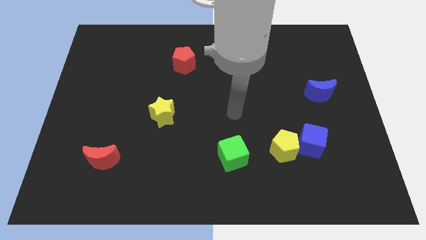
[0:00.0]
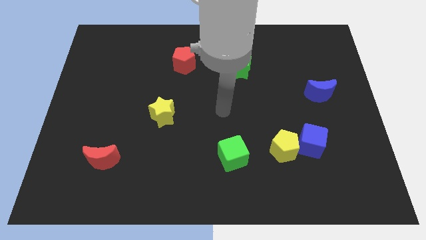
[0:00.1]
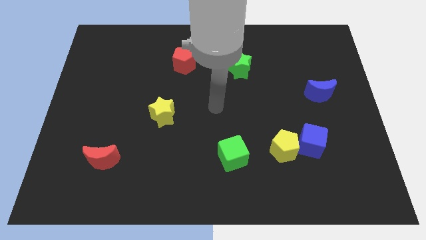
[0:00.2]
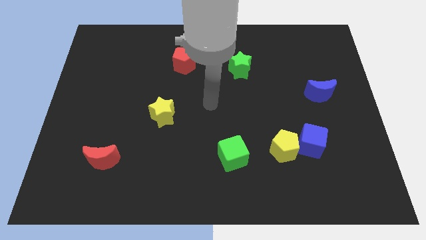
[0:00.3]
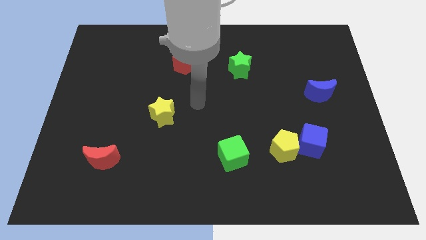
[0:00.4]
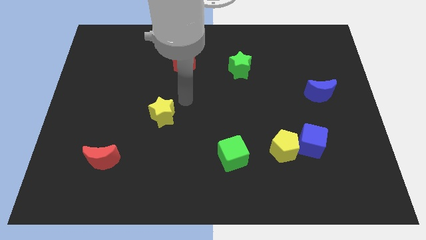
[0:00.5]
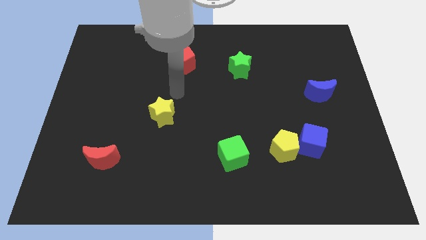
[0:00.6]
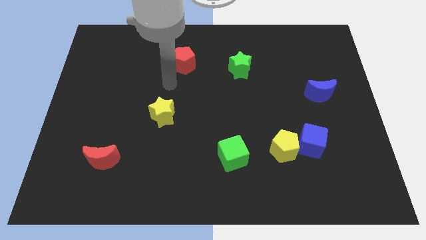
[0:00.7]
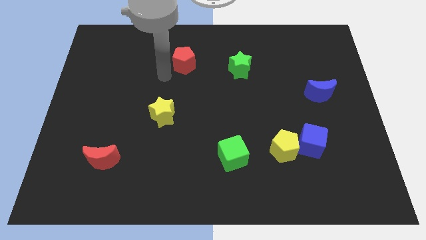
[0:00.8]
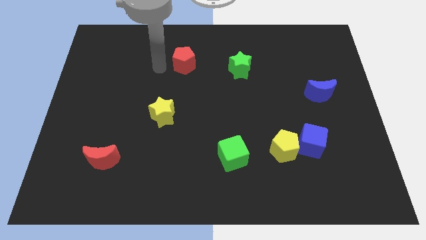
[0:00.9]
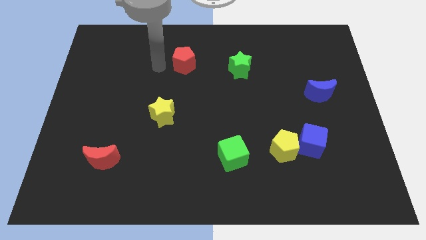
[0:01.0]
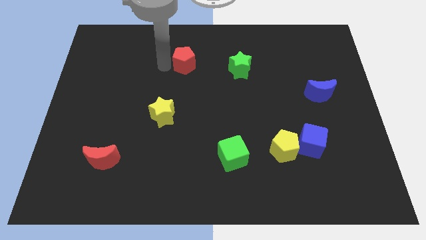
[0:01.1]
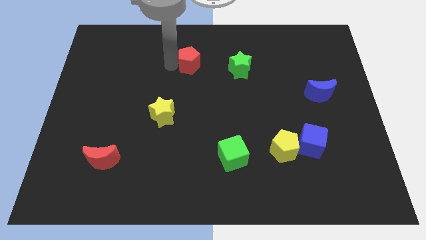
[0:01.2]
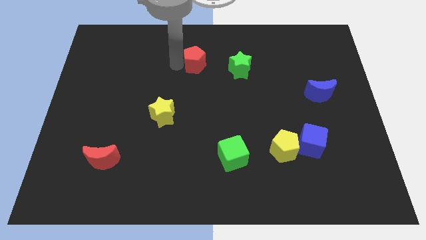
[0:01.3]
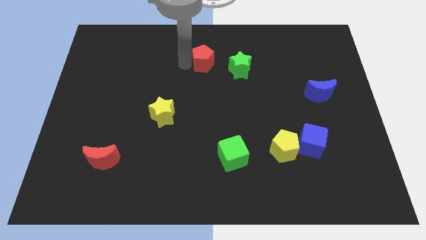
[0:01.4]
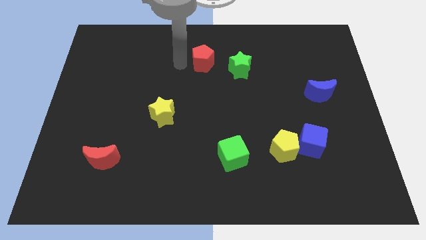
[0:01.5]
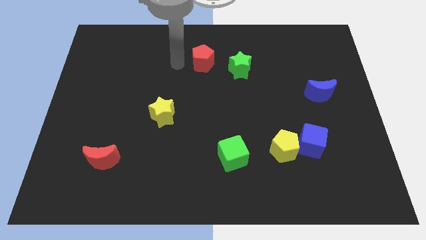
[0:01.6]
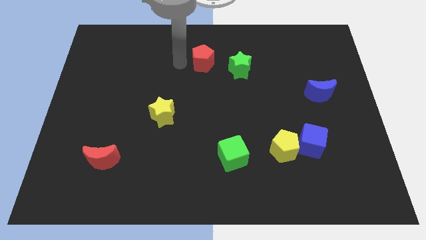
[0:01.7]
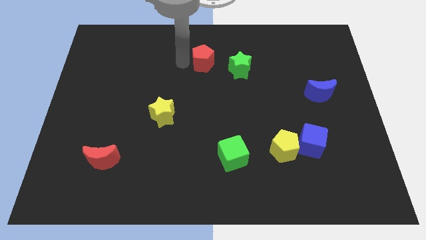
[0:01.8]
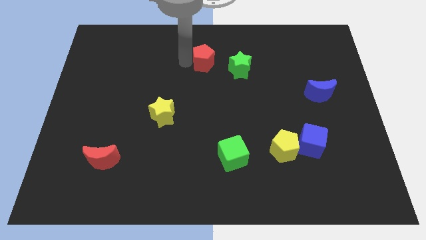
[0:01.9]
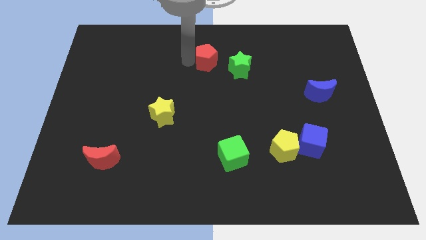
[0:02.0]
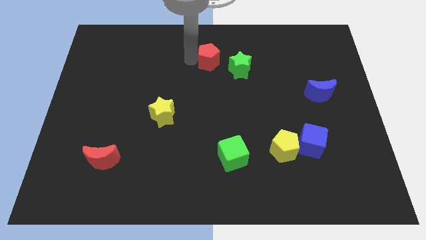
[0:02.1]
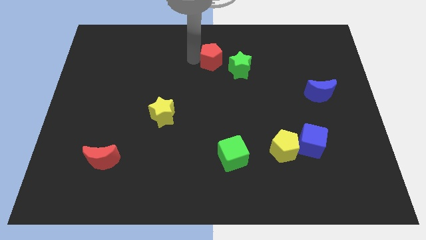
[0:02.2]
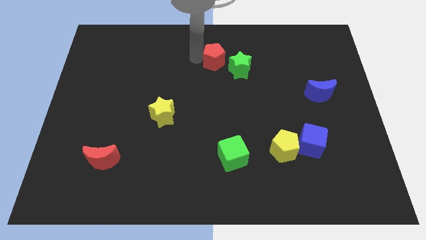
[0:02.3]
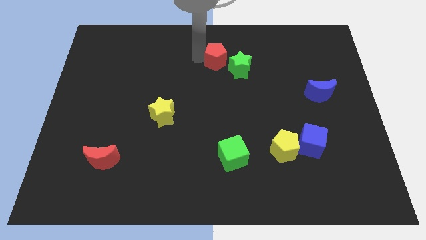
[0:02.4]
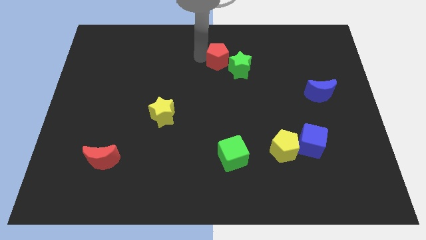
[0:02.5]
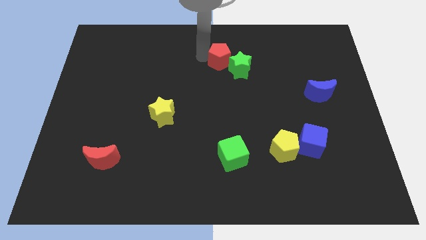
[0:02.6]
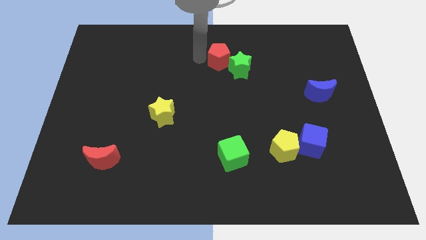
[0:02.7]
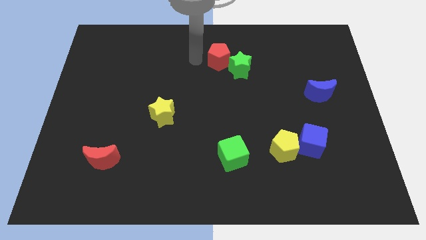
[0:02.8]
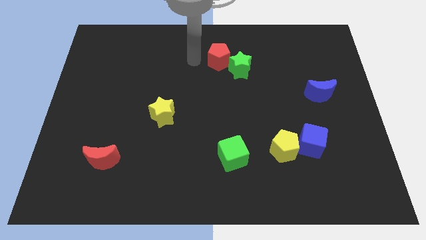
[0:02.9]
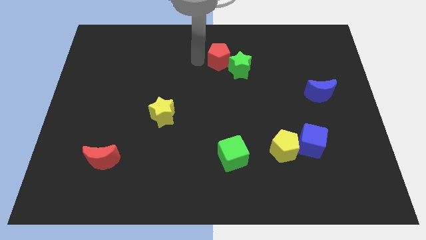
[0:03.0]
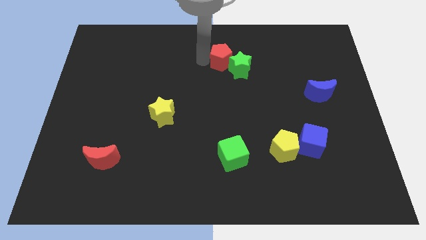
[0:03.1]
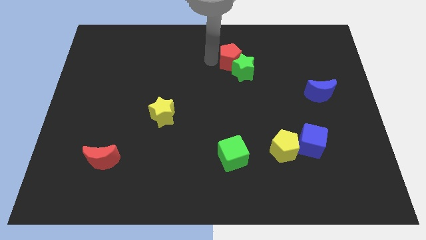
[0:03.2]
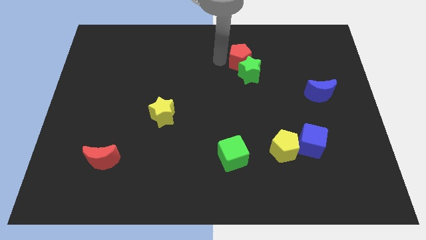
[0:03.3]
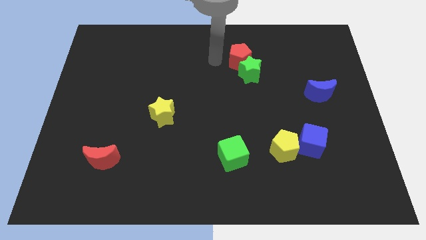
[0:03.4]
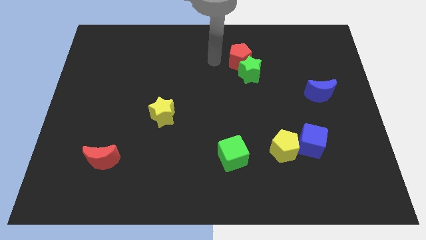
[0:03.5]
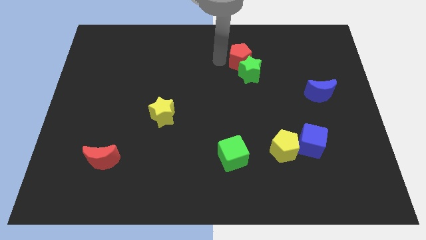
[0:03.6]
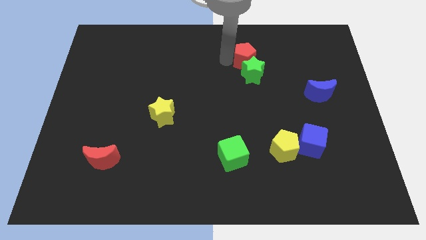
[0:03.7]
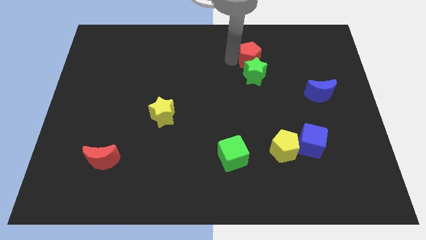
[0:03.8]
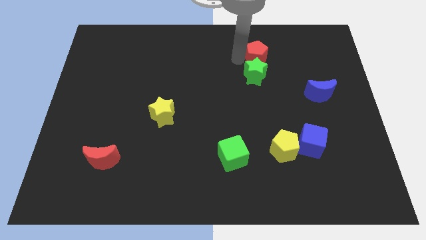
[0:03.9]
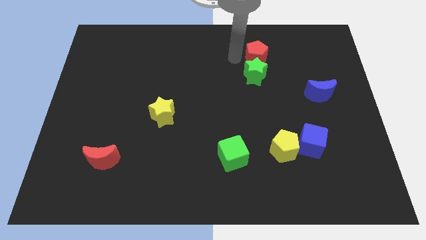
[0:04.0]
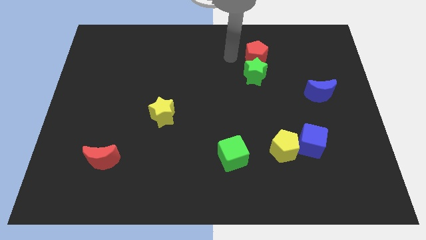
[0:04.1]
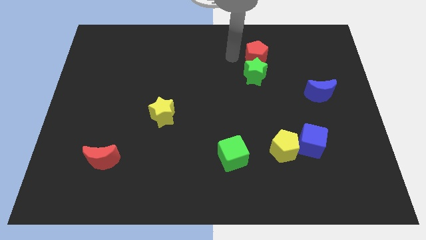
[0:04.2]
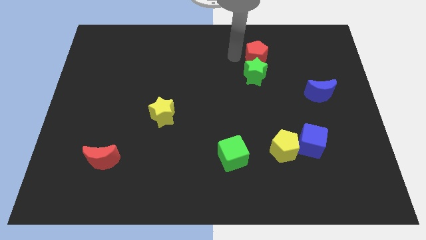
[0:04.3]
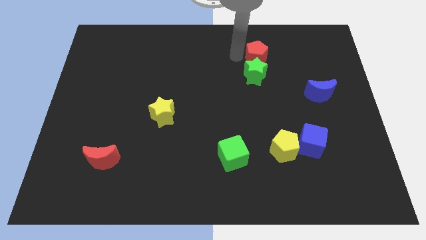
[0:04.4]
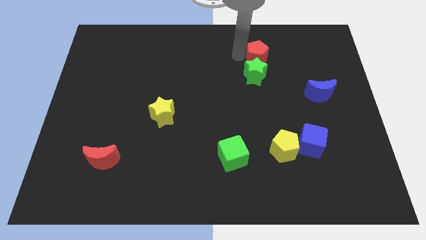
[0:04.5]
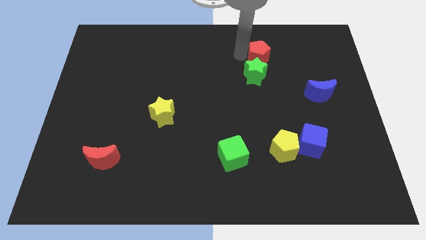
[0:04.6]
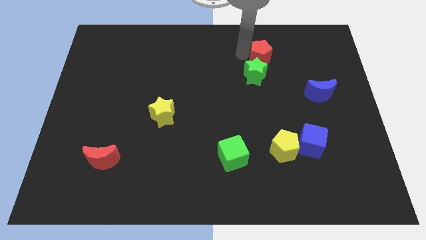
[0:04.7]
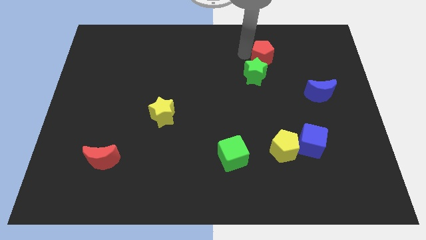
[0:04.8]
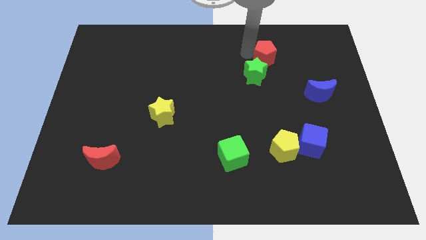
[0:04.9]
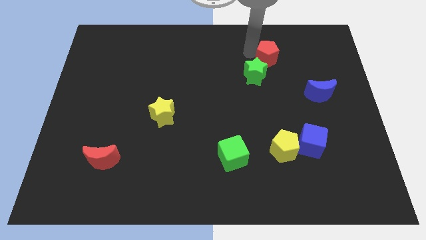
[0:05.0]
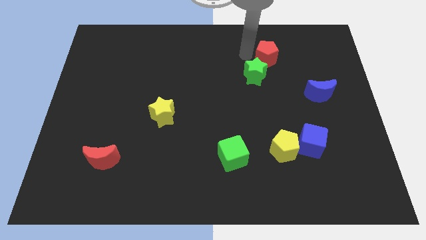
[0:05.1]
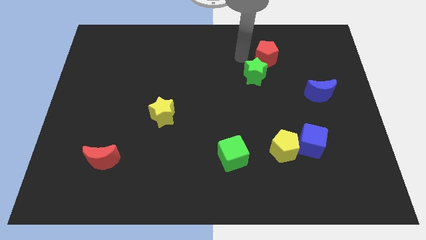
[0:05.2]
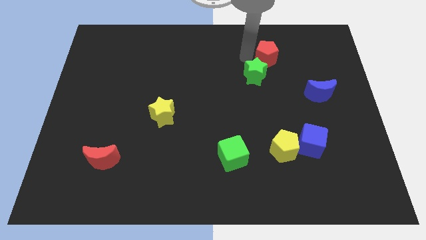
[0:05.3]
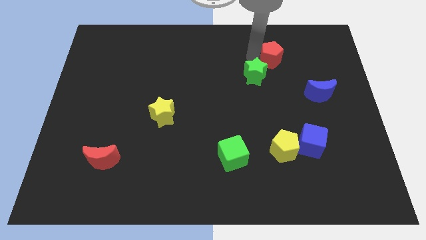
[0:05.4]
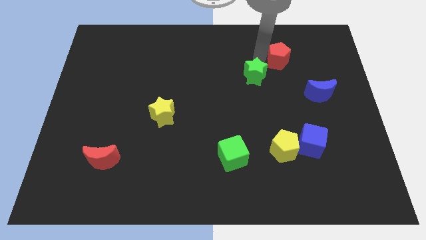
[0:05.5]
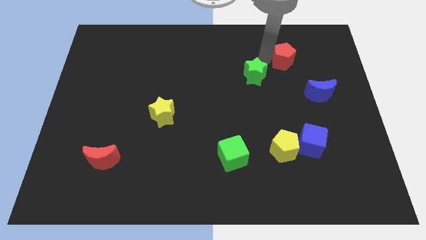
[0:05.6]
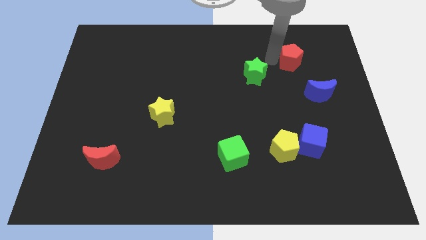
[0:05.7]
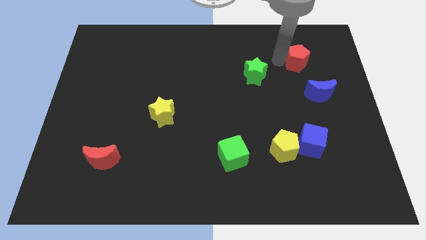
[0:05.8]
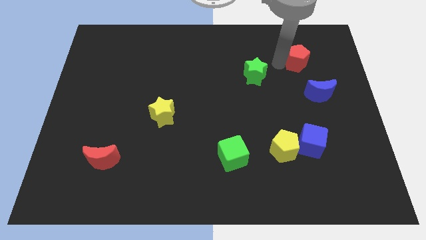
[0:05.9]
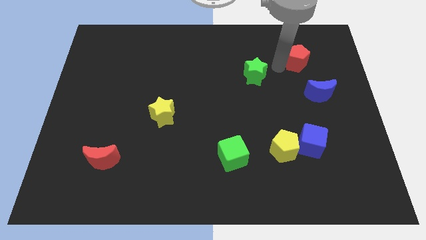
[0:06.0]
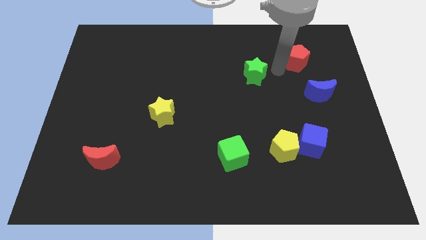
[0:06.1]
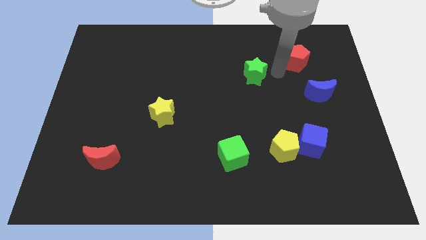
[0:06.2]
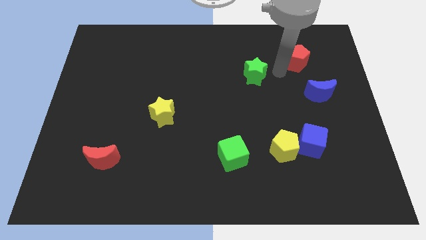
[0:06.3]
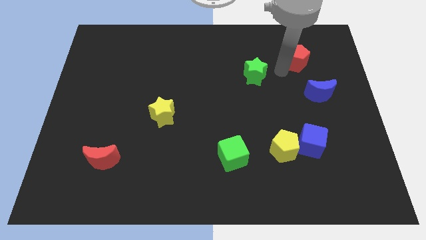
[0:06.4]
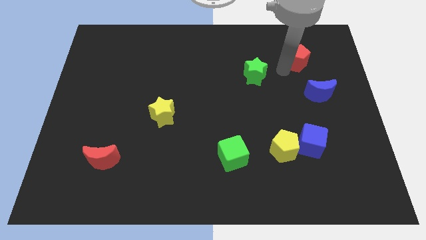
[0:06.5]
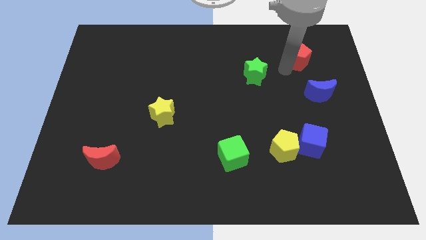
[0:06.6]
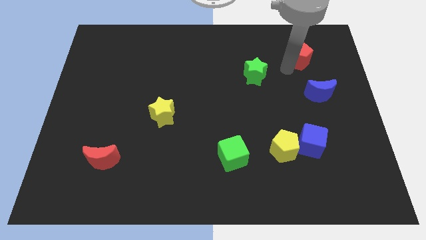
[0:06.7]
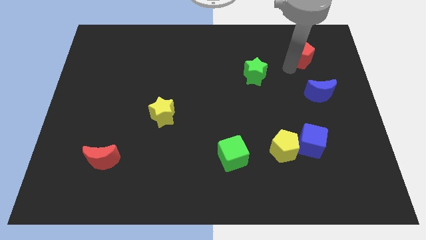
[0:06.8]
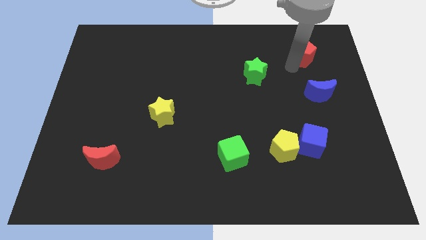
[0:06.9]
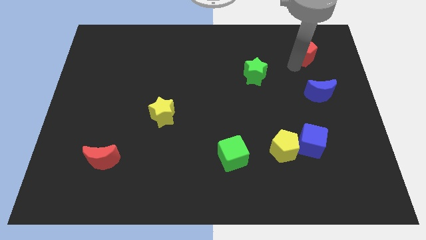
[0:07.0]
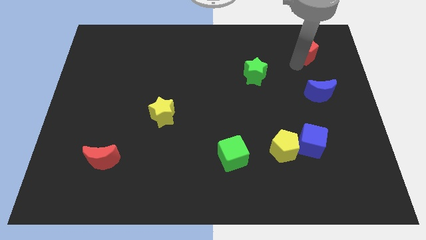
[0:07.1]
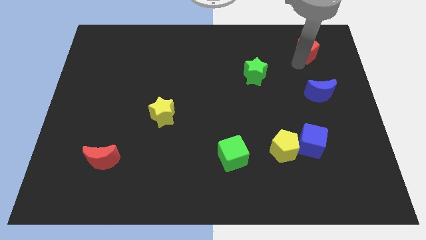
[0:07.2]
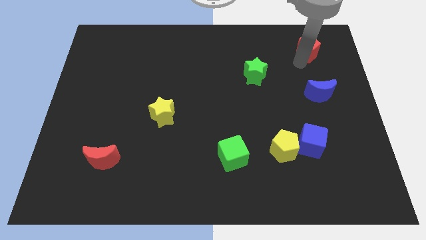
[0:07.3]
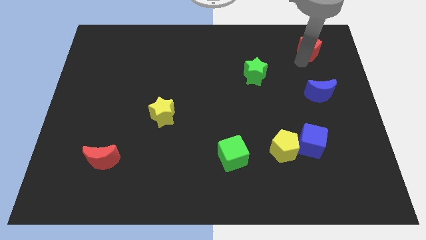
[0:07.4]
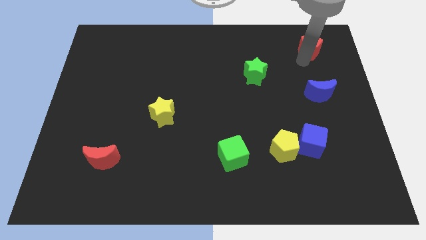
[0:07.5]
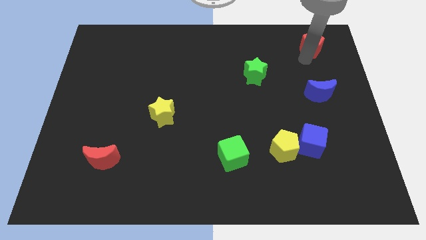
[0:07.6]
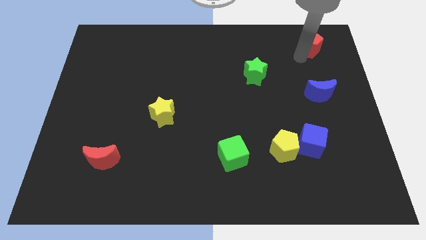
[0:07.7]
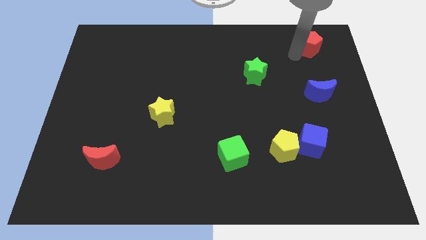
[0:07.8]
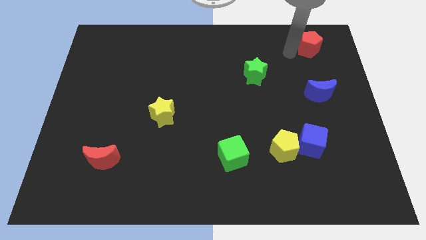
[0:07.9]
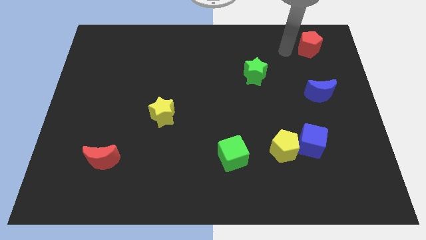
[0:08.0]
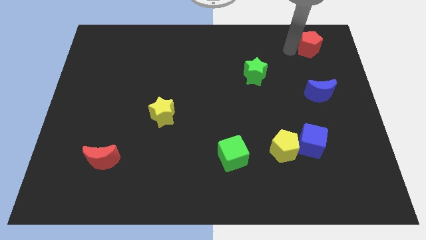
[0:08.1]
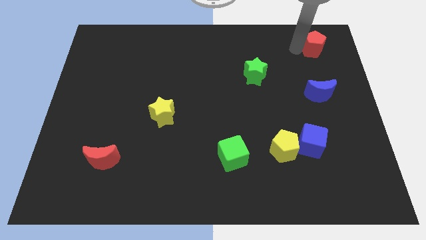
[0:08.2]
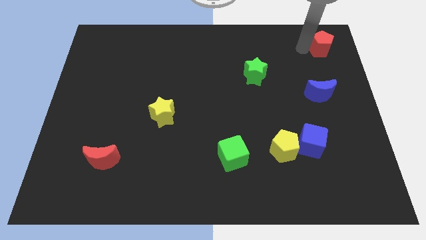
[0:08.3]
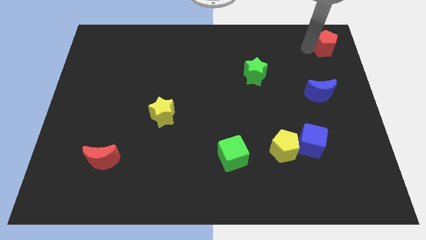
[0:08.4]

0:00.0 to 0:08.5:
push the red pentagon to the top right corner
